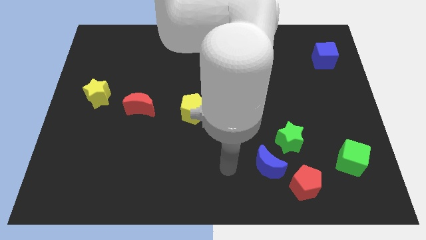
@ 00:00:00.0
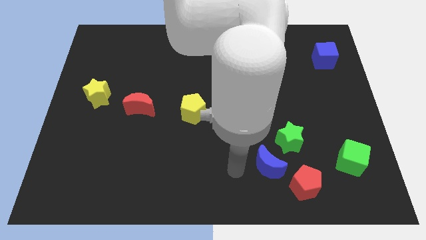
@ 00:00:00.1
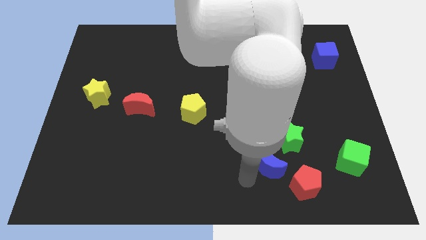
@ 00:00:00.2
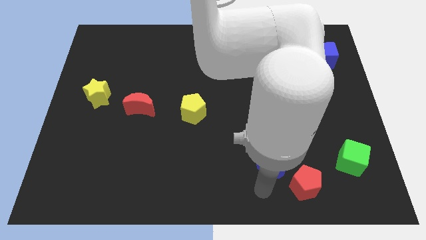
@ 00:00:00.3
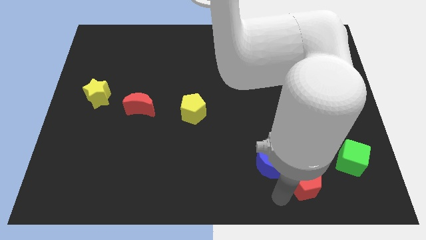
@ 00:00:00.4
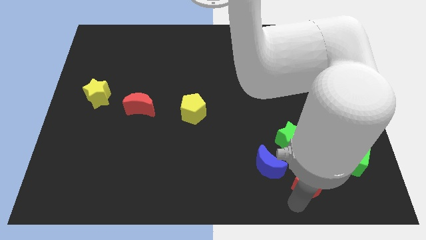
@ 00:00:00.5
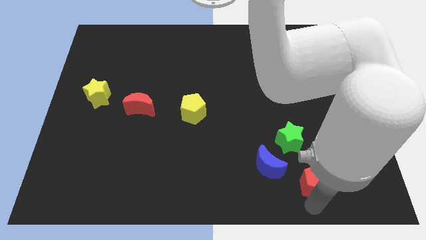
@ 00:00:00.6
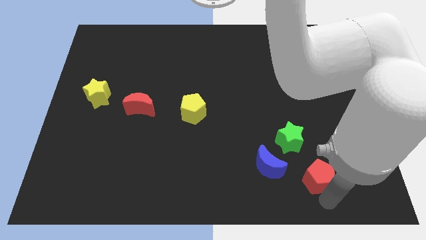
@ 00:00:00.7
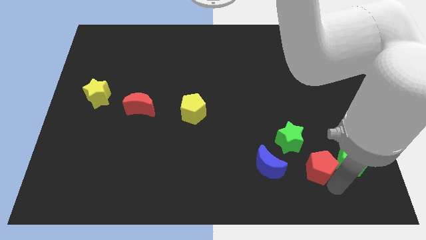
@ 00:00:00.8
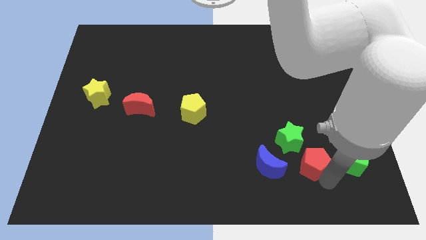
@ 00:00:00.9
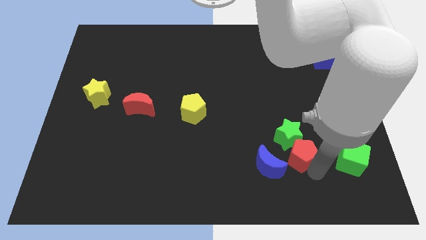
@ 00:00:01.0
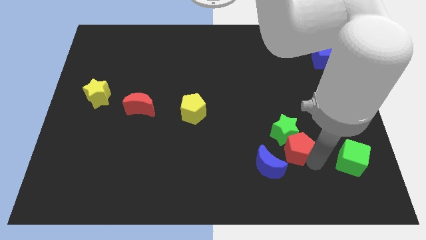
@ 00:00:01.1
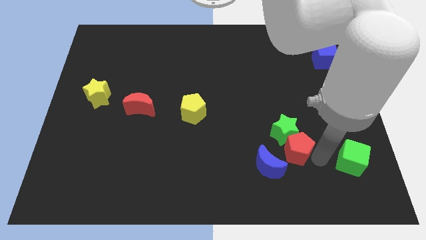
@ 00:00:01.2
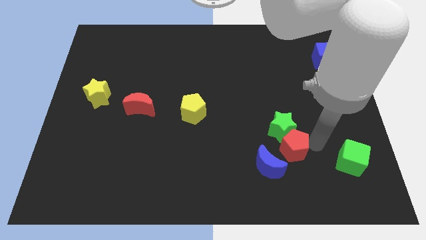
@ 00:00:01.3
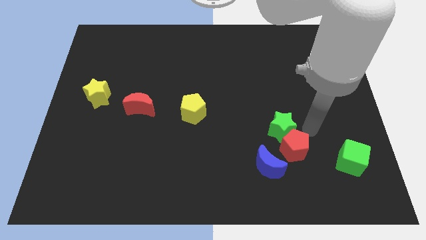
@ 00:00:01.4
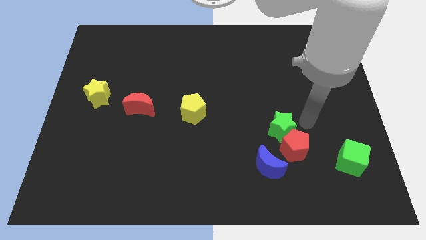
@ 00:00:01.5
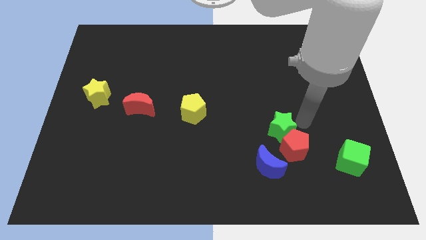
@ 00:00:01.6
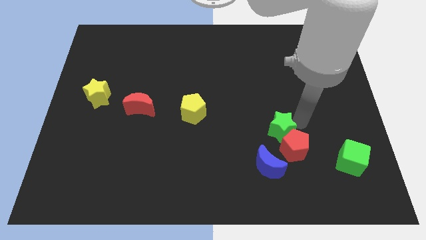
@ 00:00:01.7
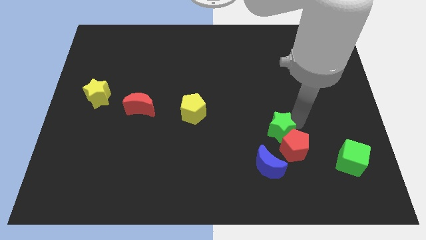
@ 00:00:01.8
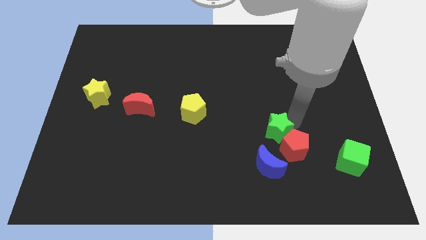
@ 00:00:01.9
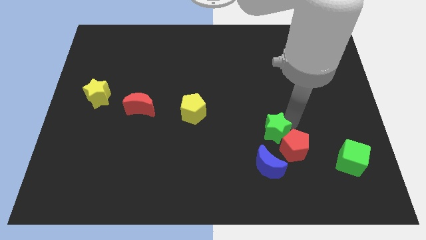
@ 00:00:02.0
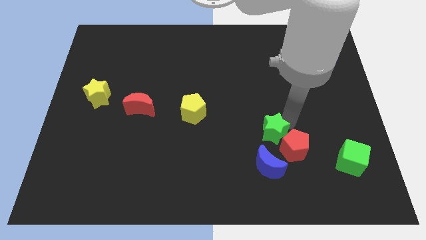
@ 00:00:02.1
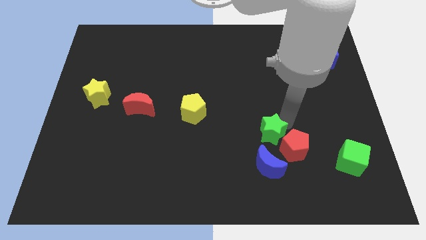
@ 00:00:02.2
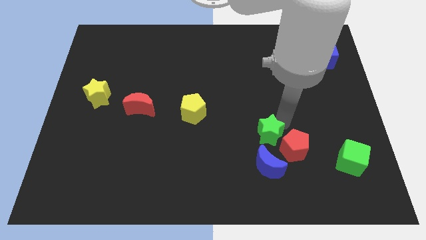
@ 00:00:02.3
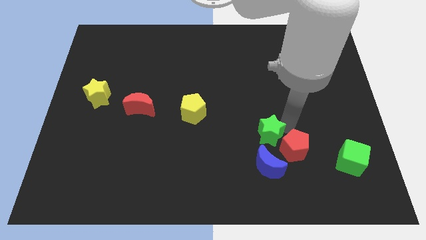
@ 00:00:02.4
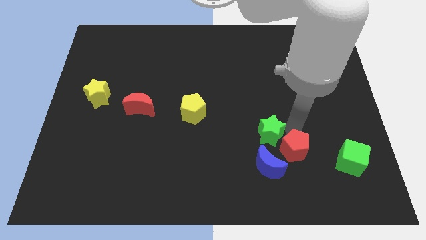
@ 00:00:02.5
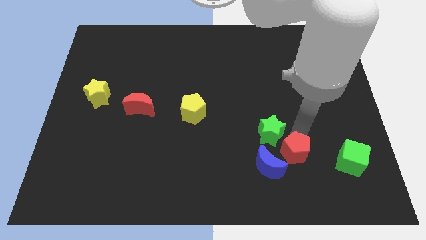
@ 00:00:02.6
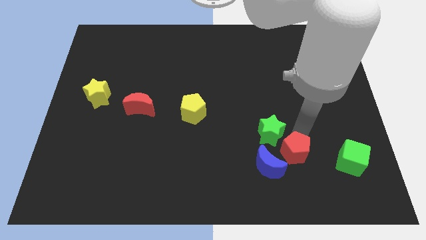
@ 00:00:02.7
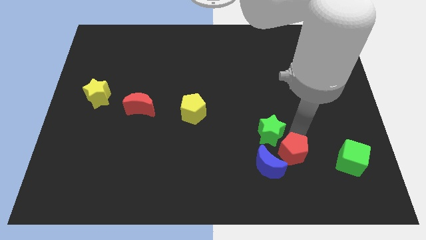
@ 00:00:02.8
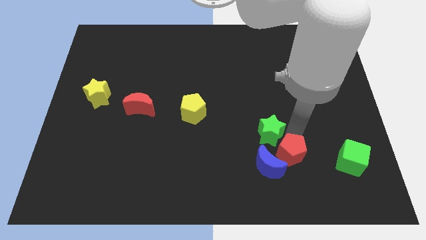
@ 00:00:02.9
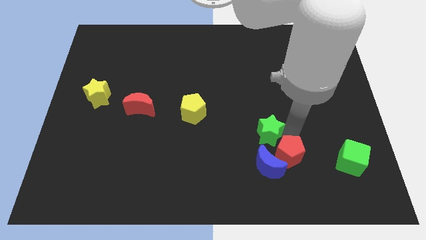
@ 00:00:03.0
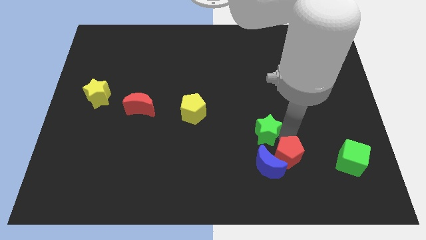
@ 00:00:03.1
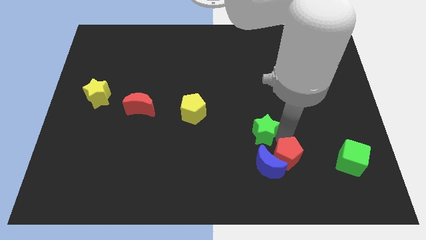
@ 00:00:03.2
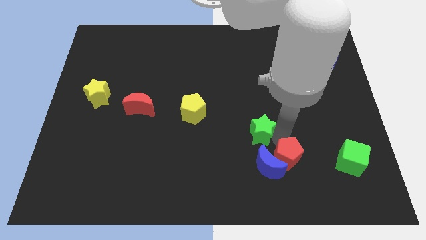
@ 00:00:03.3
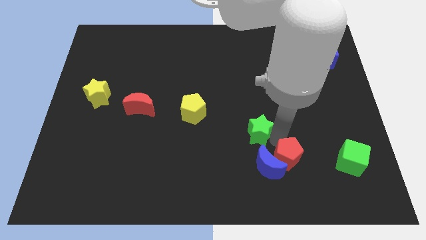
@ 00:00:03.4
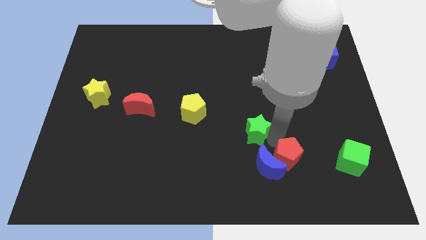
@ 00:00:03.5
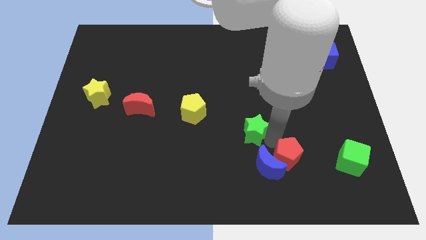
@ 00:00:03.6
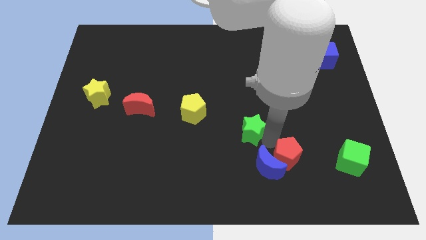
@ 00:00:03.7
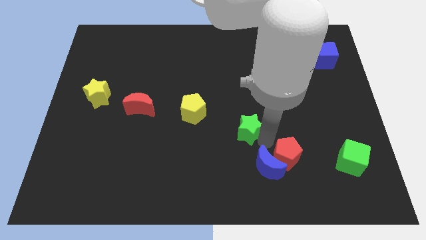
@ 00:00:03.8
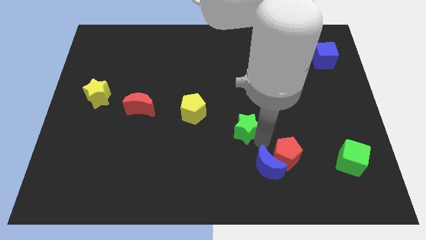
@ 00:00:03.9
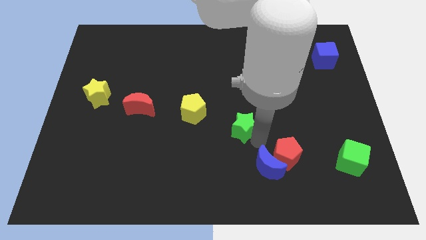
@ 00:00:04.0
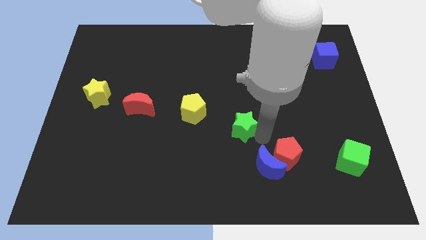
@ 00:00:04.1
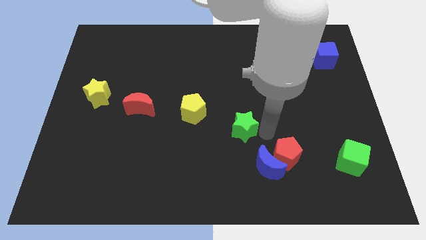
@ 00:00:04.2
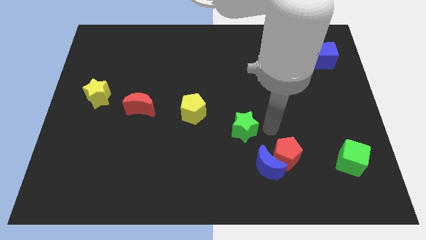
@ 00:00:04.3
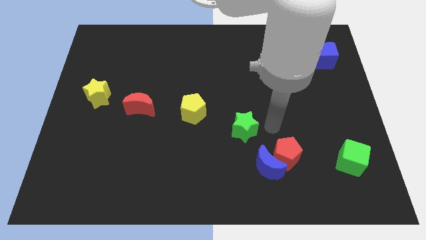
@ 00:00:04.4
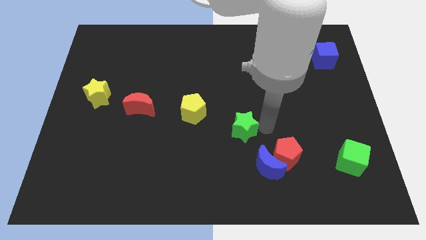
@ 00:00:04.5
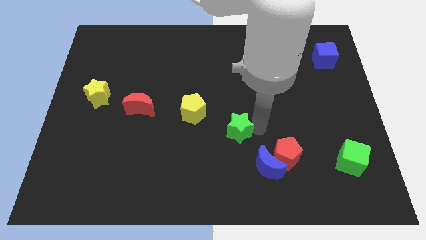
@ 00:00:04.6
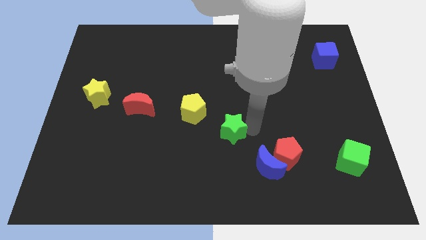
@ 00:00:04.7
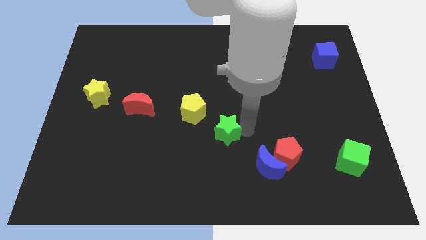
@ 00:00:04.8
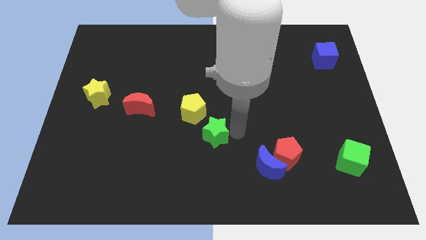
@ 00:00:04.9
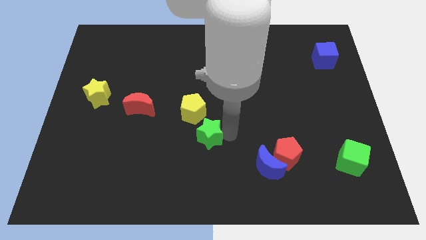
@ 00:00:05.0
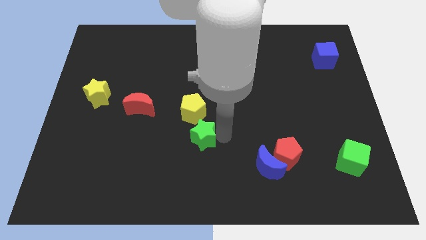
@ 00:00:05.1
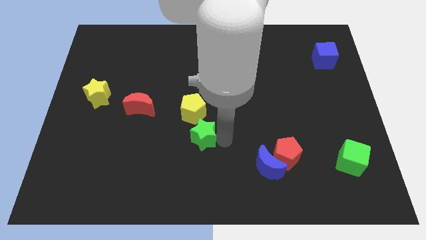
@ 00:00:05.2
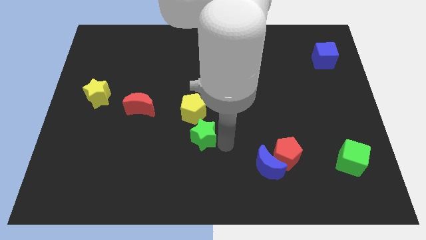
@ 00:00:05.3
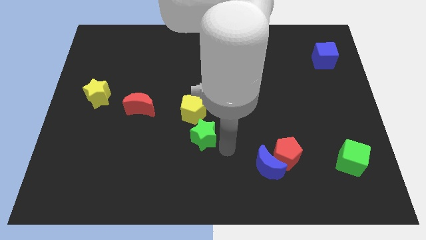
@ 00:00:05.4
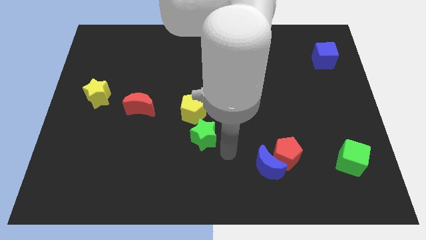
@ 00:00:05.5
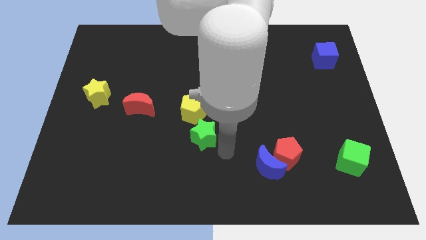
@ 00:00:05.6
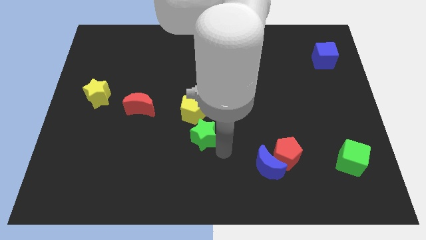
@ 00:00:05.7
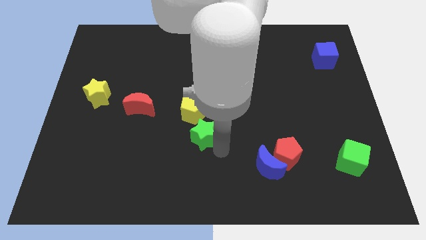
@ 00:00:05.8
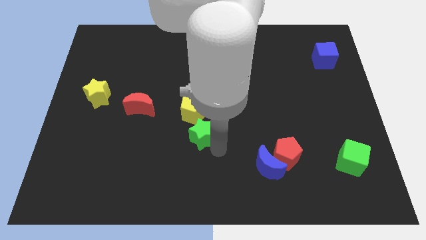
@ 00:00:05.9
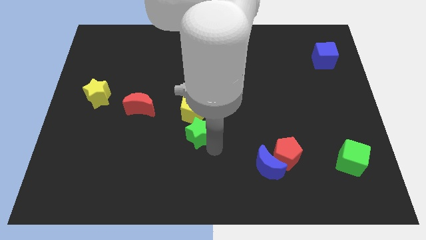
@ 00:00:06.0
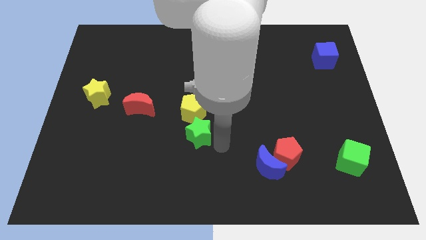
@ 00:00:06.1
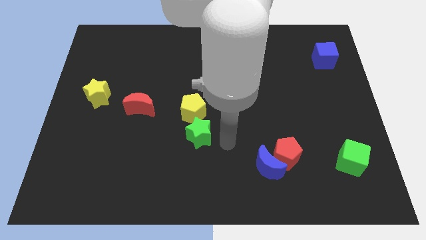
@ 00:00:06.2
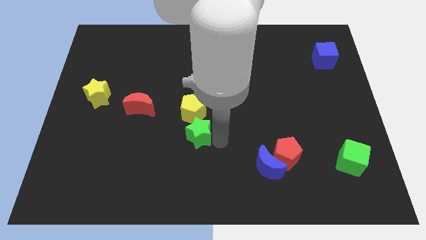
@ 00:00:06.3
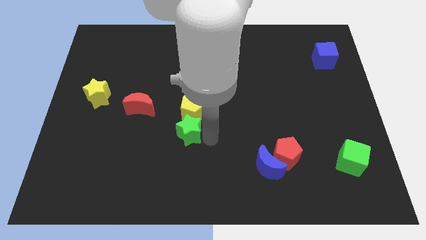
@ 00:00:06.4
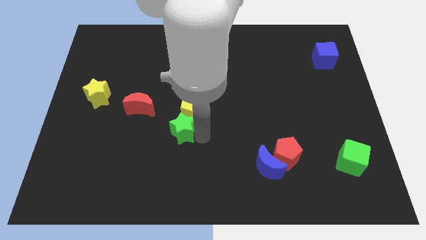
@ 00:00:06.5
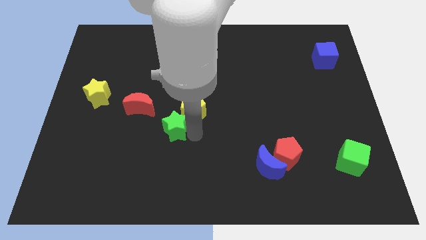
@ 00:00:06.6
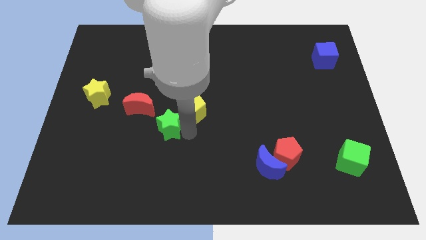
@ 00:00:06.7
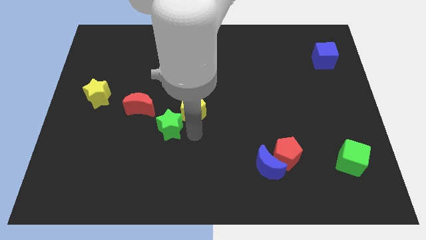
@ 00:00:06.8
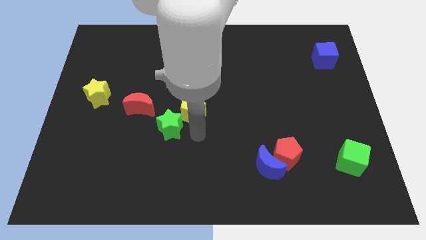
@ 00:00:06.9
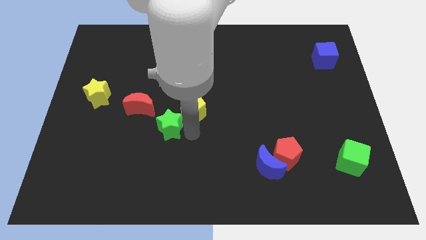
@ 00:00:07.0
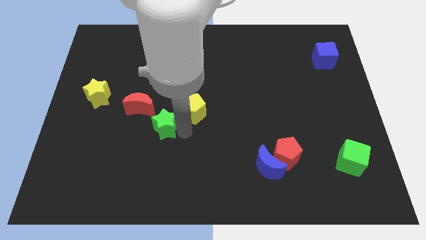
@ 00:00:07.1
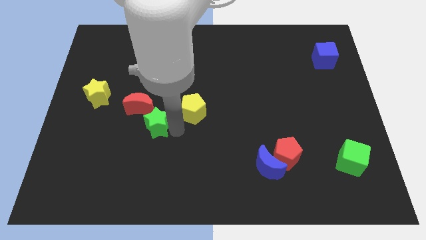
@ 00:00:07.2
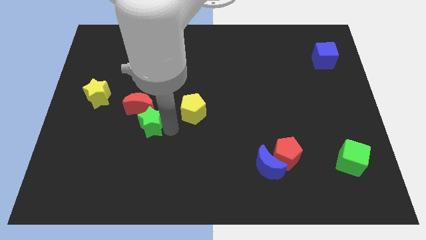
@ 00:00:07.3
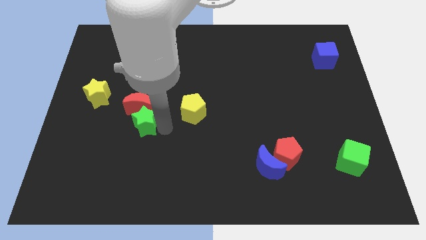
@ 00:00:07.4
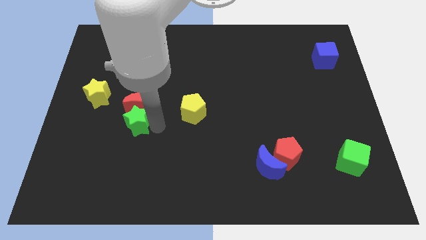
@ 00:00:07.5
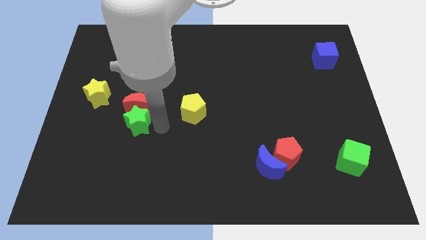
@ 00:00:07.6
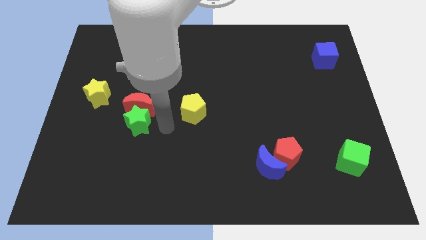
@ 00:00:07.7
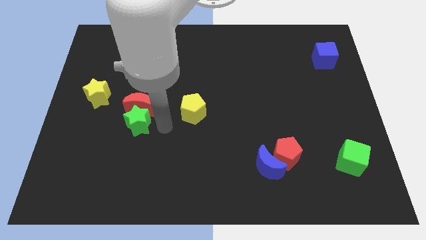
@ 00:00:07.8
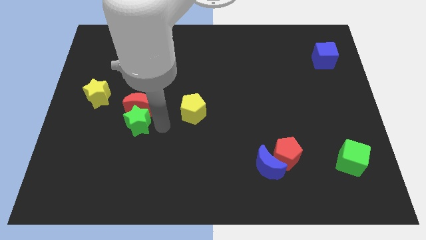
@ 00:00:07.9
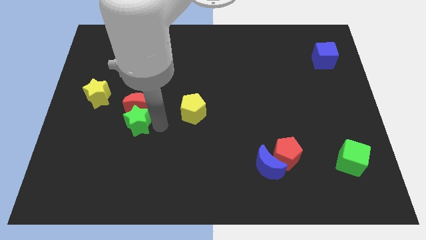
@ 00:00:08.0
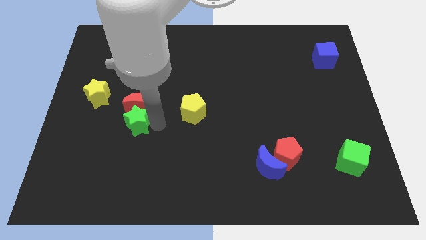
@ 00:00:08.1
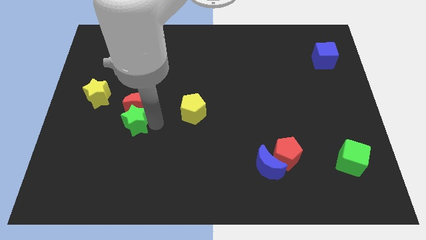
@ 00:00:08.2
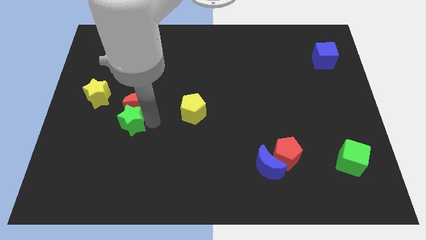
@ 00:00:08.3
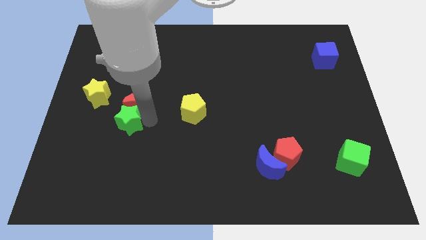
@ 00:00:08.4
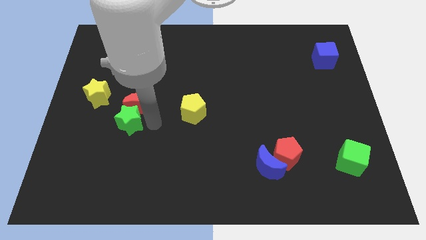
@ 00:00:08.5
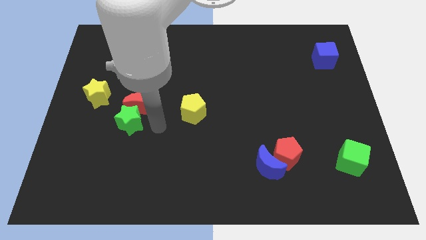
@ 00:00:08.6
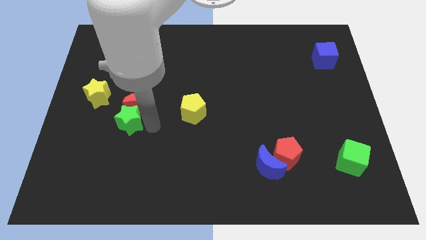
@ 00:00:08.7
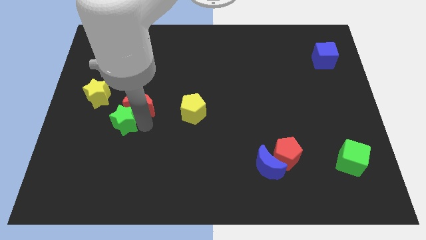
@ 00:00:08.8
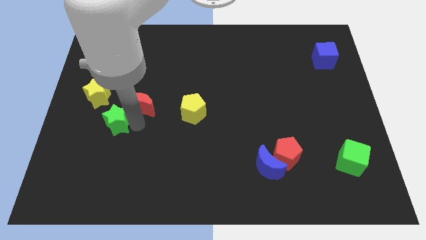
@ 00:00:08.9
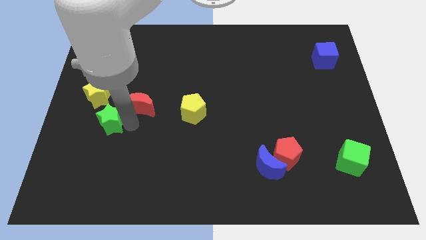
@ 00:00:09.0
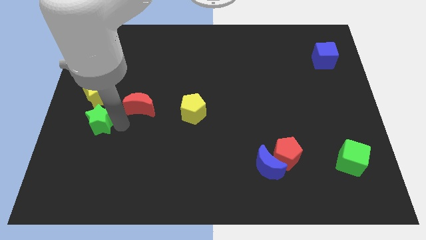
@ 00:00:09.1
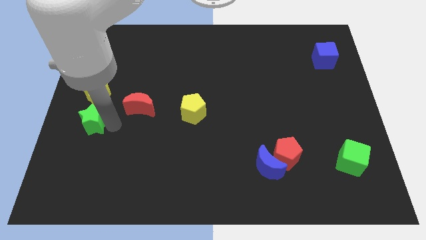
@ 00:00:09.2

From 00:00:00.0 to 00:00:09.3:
put the green star to the left side of the board
